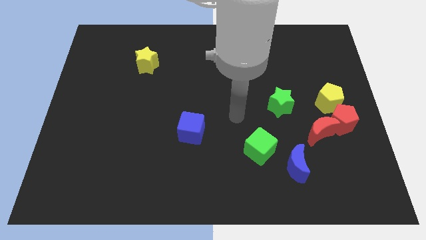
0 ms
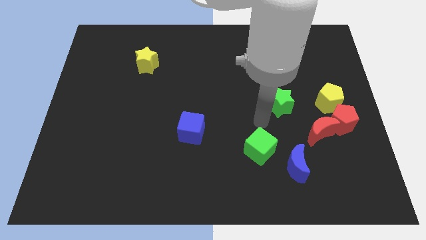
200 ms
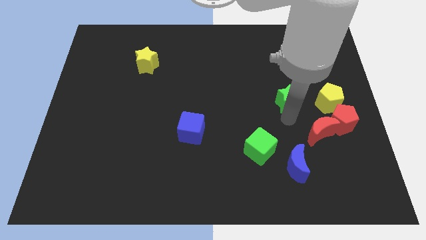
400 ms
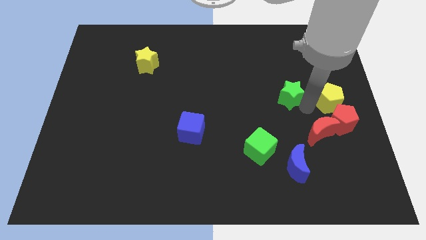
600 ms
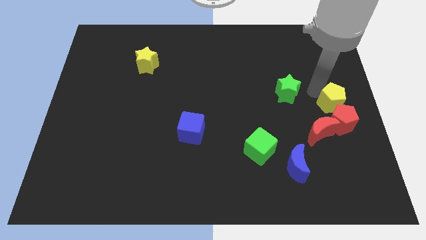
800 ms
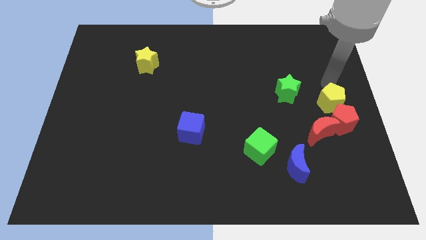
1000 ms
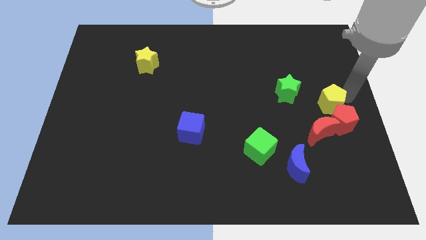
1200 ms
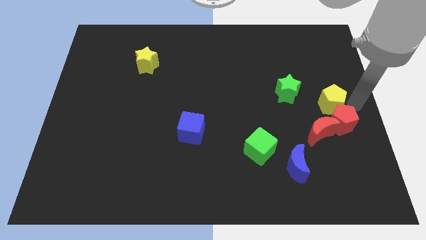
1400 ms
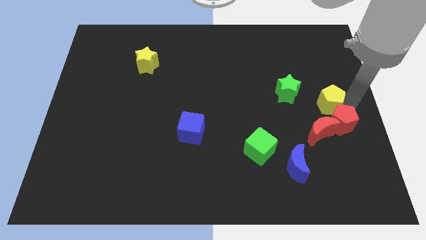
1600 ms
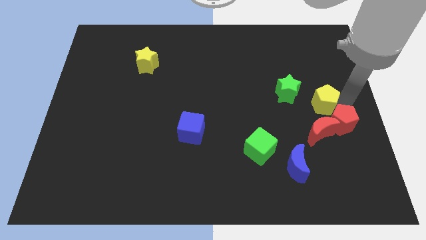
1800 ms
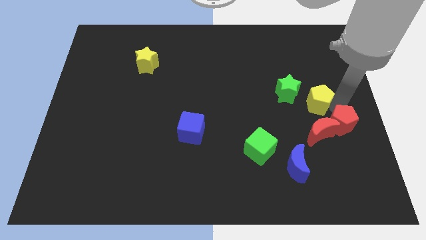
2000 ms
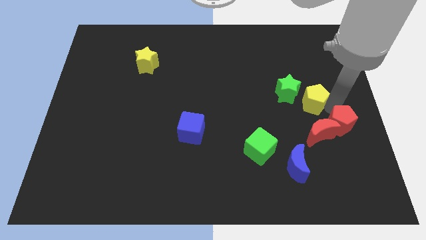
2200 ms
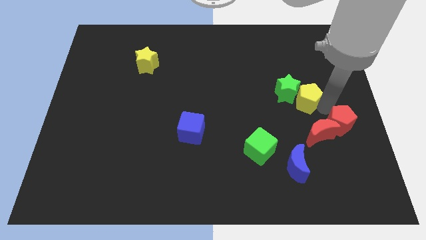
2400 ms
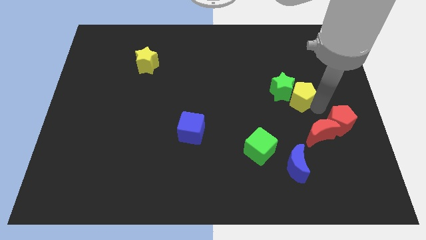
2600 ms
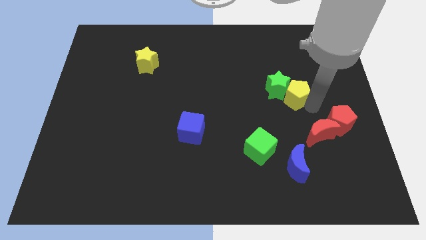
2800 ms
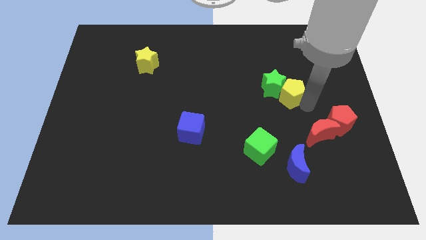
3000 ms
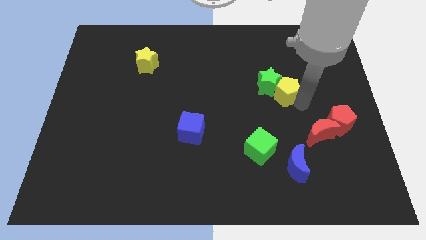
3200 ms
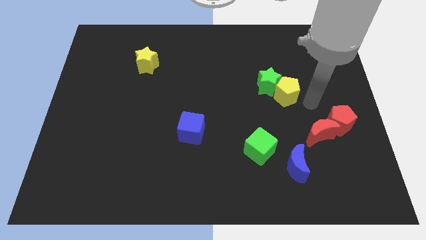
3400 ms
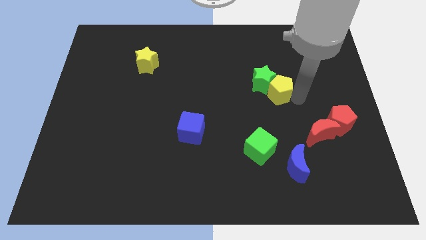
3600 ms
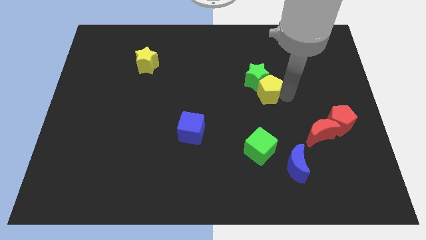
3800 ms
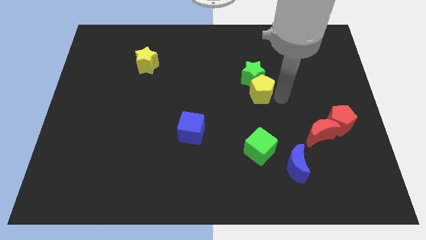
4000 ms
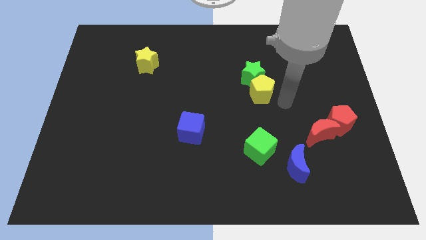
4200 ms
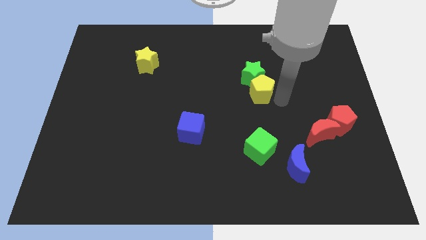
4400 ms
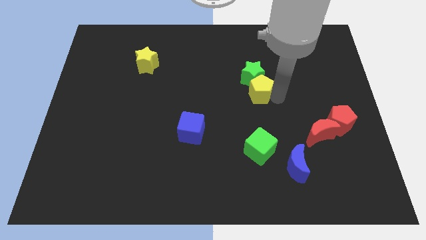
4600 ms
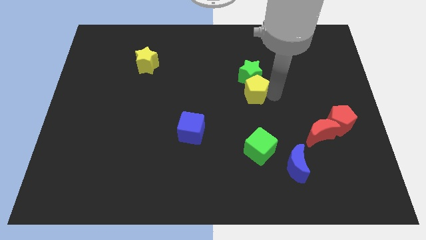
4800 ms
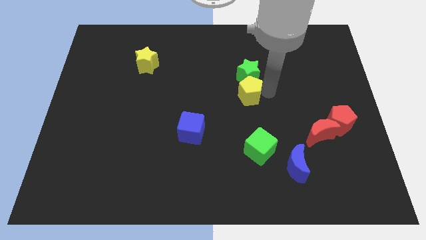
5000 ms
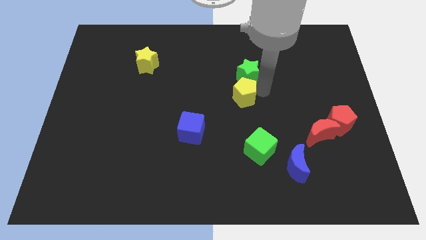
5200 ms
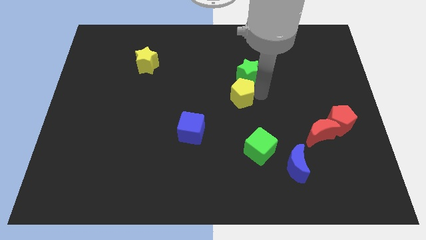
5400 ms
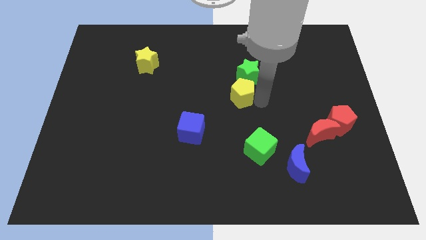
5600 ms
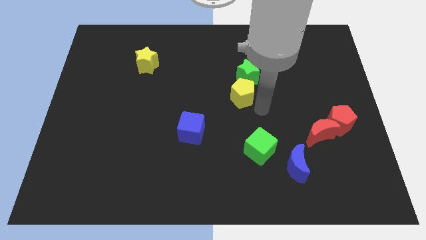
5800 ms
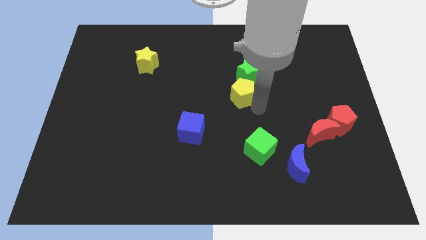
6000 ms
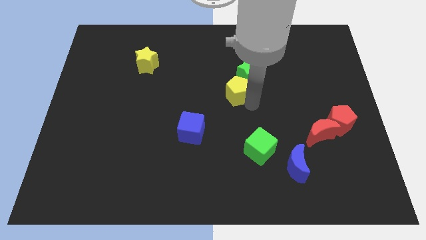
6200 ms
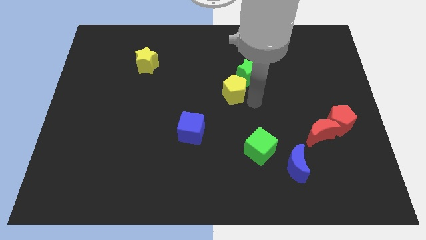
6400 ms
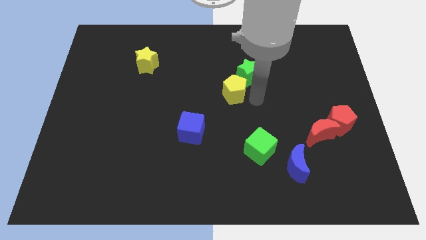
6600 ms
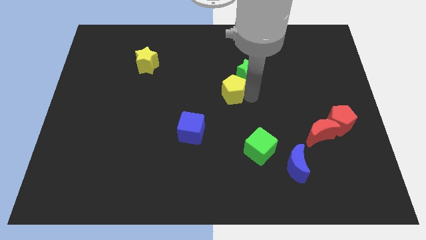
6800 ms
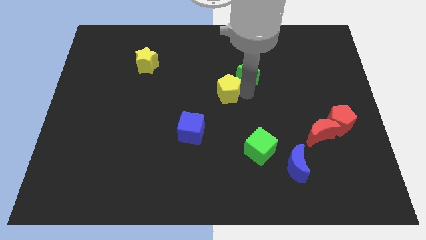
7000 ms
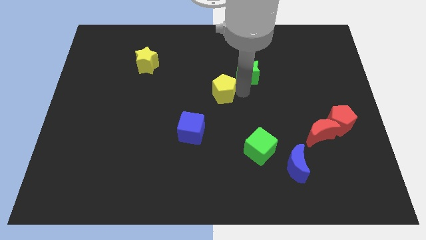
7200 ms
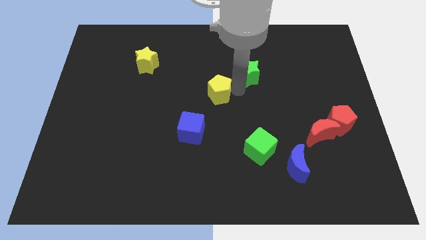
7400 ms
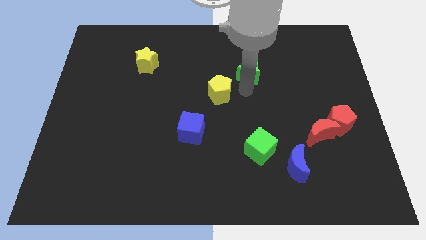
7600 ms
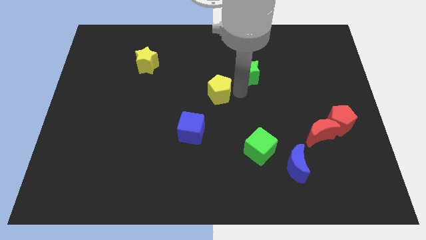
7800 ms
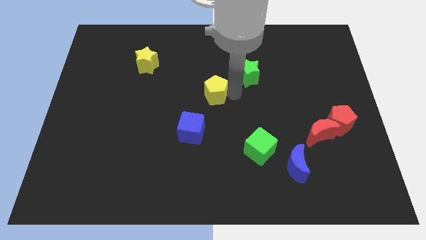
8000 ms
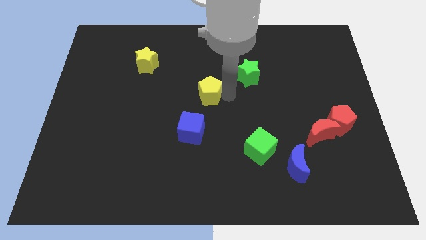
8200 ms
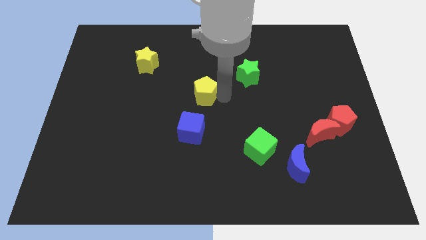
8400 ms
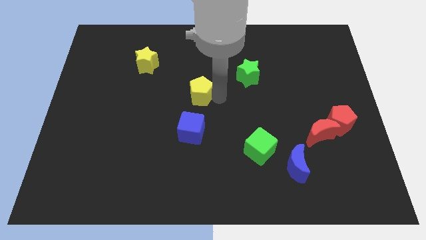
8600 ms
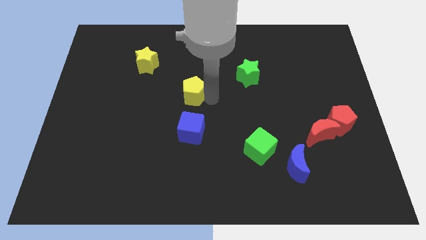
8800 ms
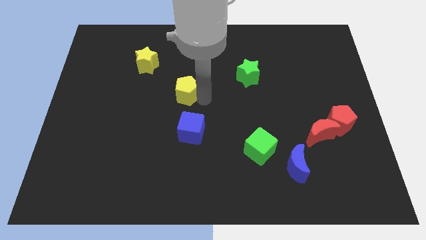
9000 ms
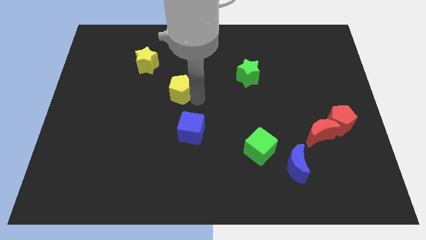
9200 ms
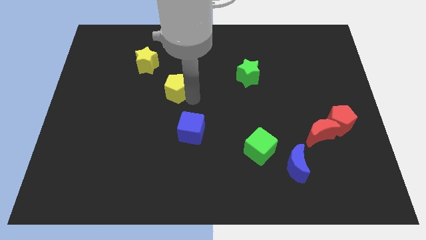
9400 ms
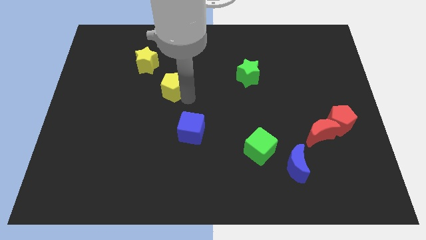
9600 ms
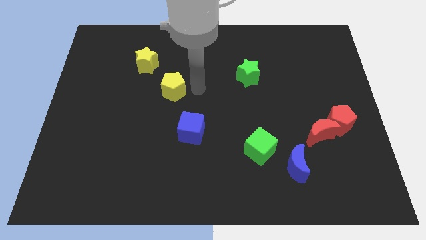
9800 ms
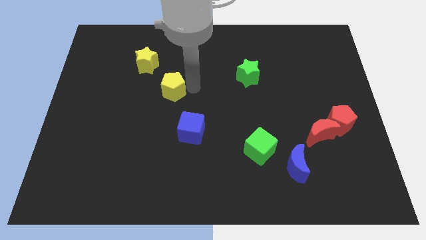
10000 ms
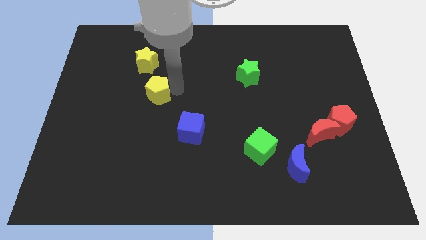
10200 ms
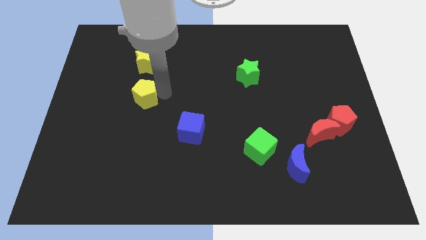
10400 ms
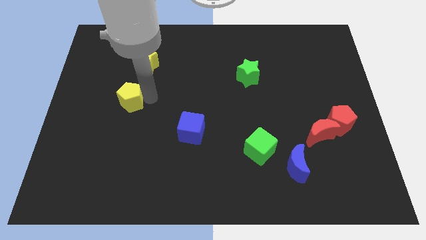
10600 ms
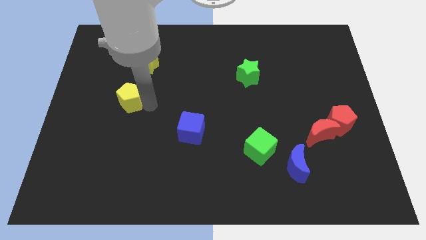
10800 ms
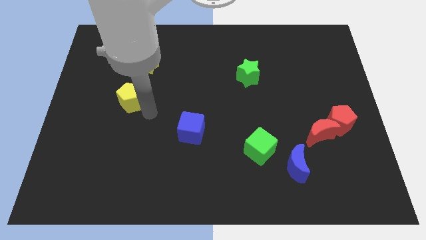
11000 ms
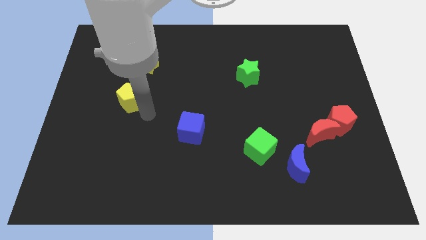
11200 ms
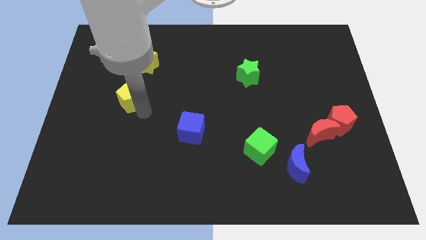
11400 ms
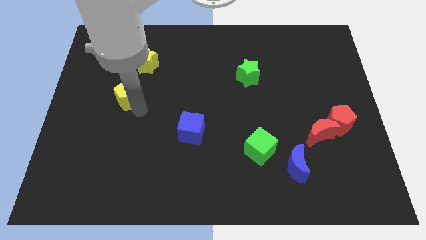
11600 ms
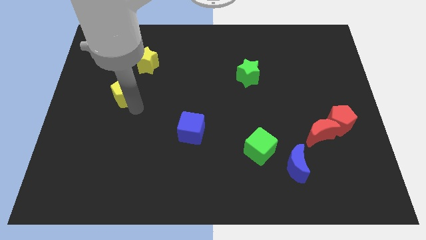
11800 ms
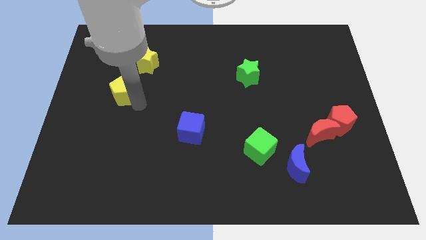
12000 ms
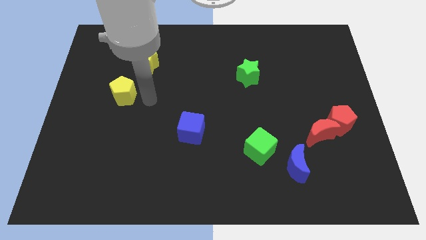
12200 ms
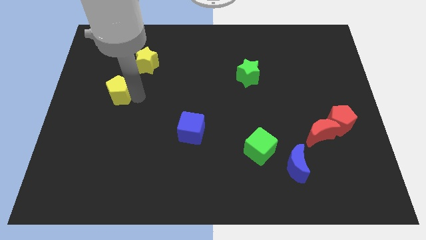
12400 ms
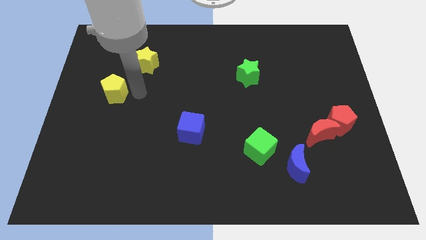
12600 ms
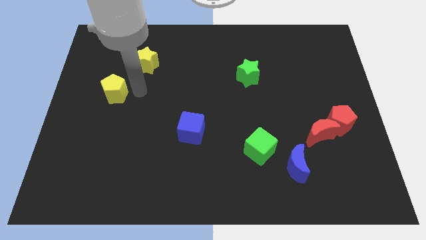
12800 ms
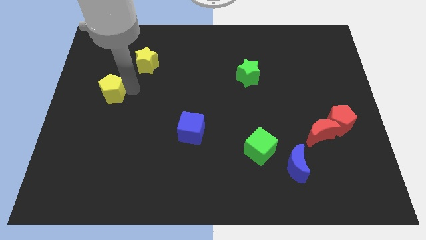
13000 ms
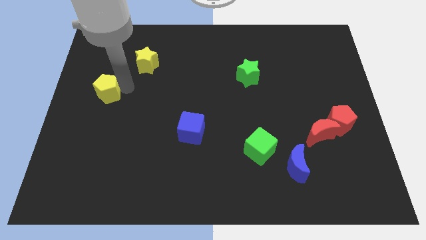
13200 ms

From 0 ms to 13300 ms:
move the yellow pentagon to the left side

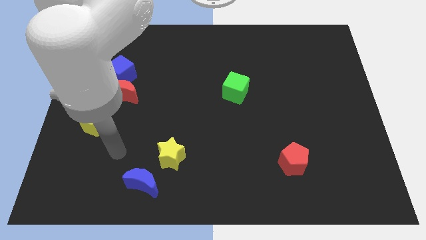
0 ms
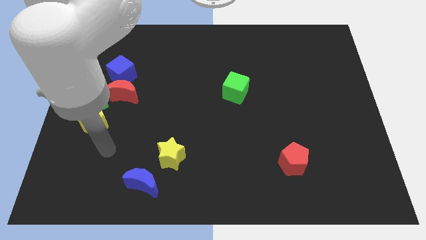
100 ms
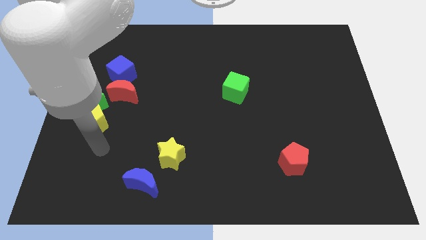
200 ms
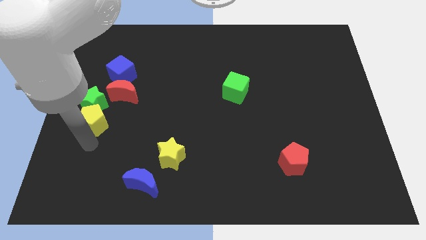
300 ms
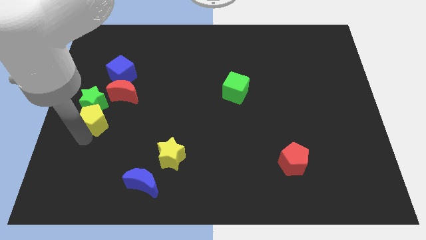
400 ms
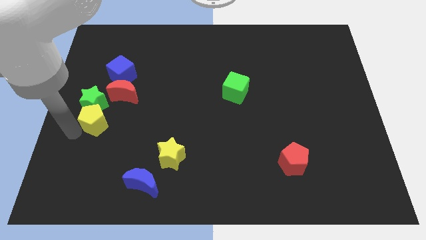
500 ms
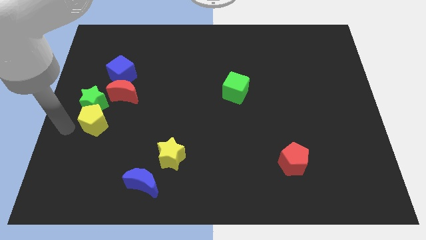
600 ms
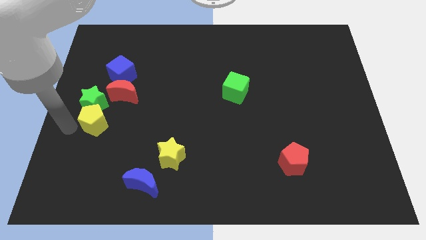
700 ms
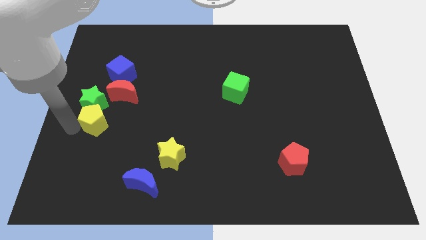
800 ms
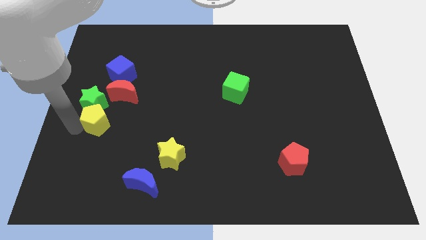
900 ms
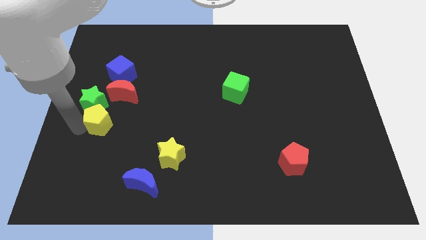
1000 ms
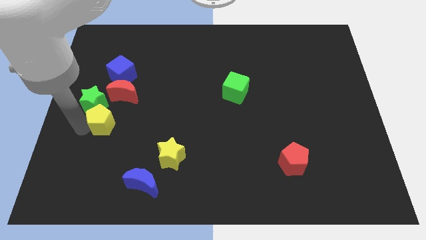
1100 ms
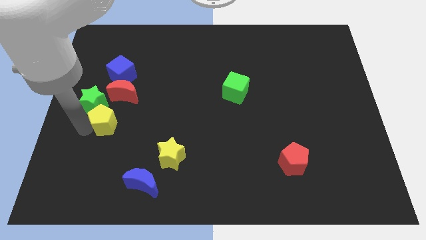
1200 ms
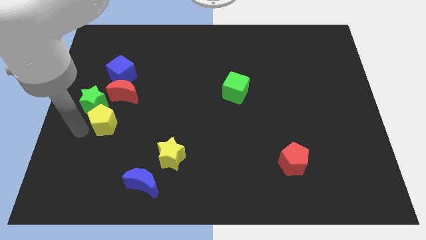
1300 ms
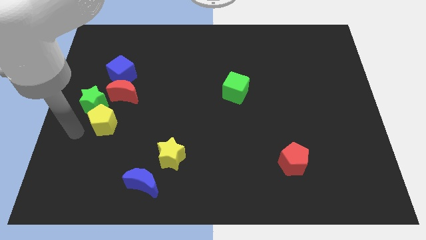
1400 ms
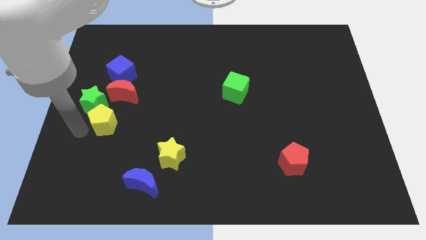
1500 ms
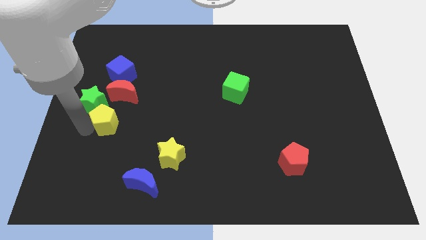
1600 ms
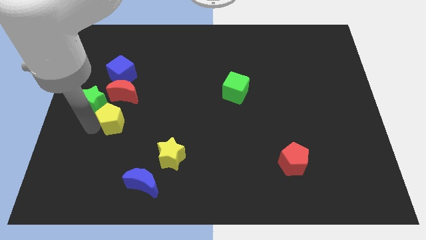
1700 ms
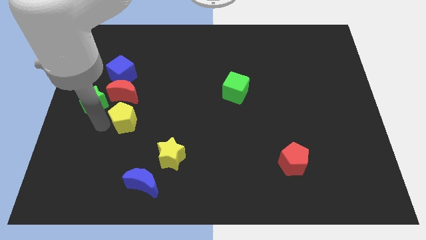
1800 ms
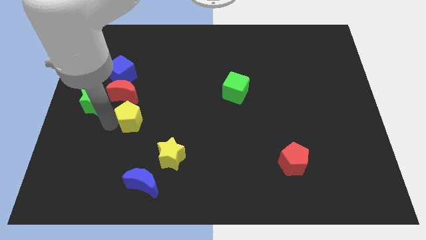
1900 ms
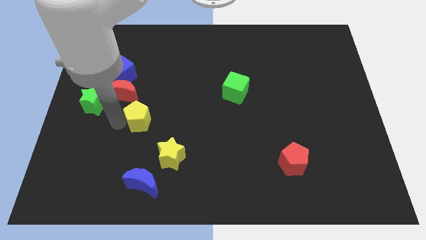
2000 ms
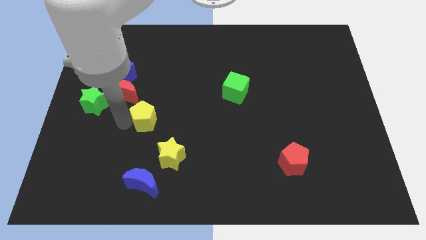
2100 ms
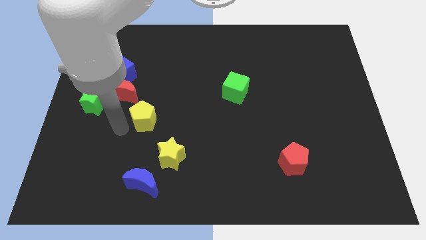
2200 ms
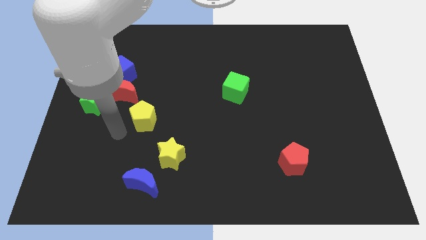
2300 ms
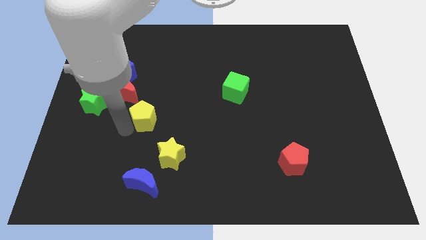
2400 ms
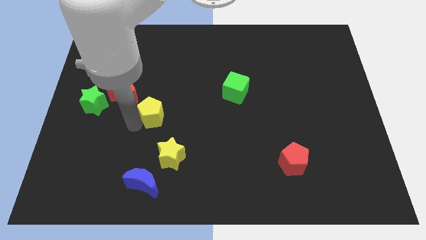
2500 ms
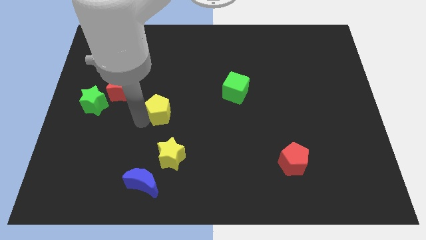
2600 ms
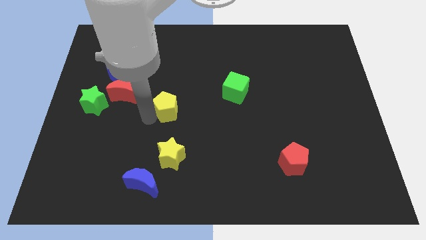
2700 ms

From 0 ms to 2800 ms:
push the yellow pentagon to the center
